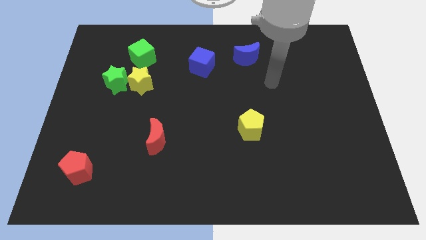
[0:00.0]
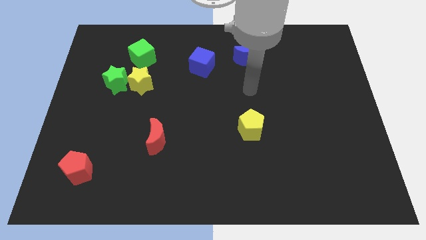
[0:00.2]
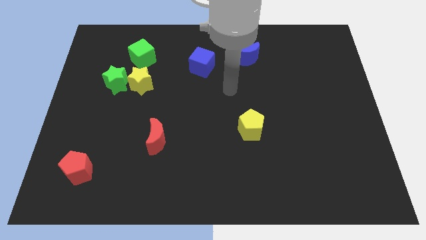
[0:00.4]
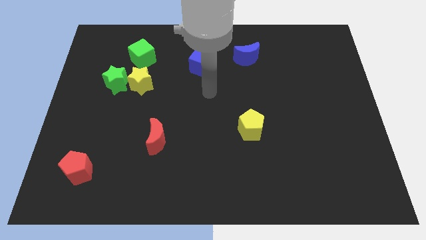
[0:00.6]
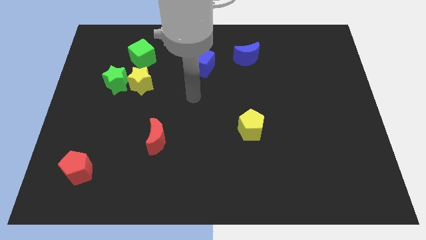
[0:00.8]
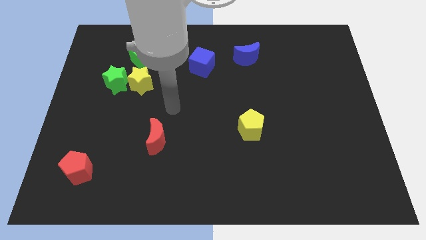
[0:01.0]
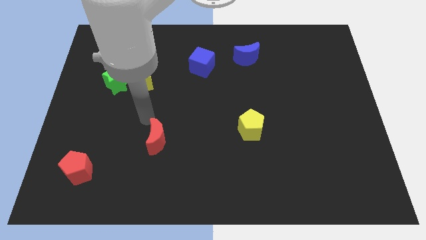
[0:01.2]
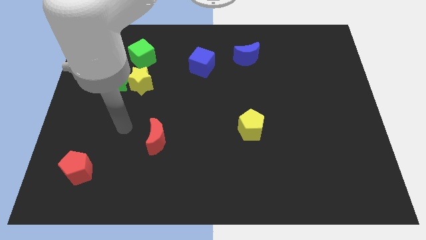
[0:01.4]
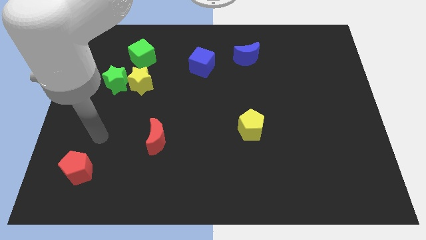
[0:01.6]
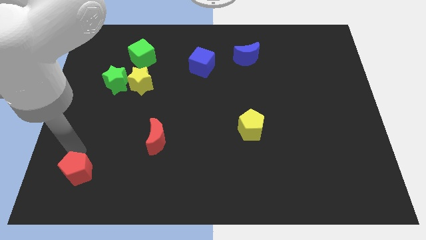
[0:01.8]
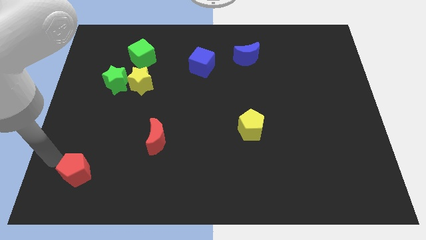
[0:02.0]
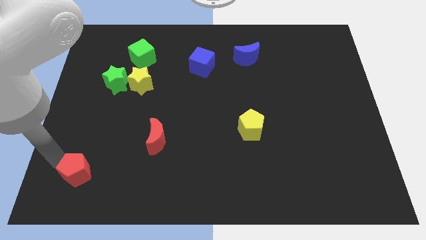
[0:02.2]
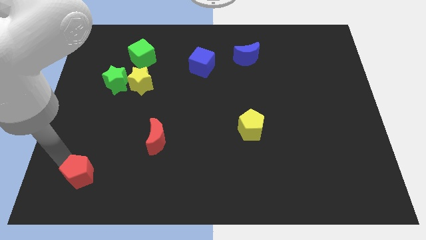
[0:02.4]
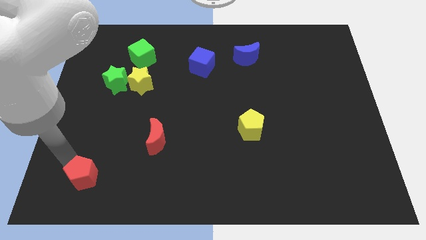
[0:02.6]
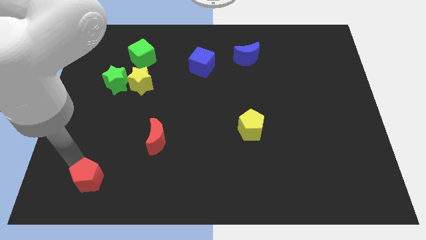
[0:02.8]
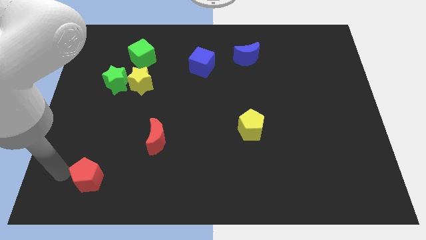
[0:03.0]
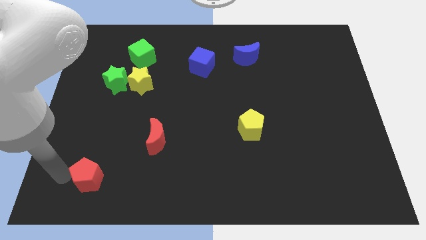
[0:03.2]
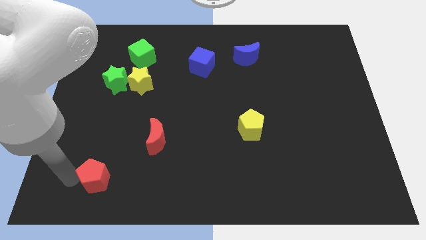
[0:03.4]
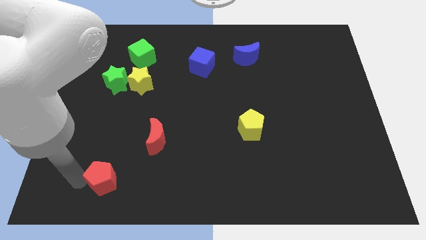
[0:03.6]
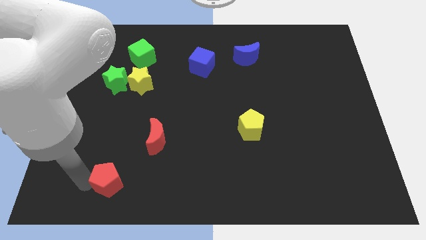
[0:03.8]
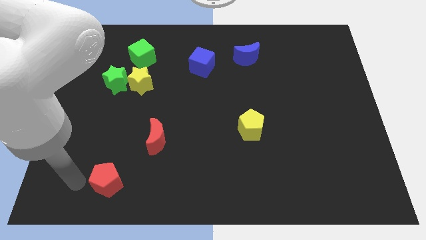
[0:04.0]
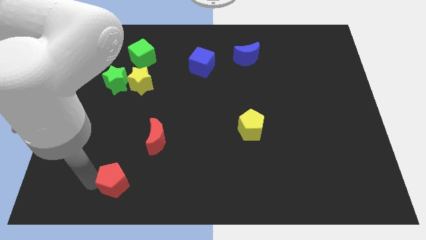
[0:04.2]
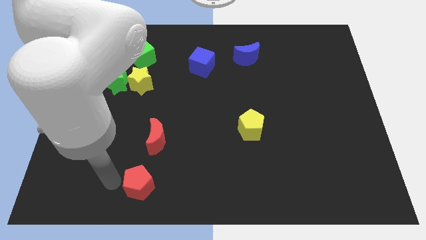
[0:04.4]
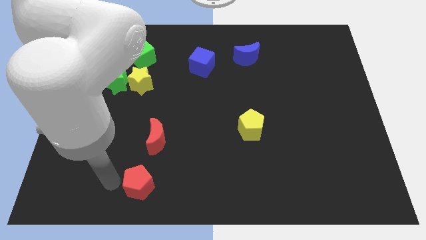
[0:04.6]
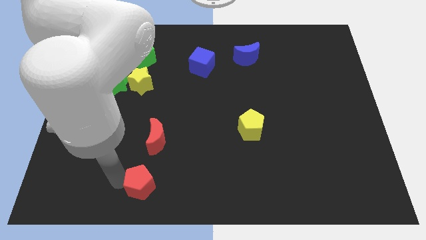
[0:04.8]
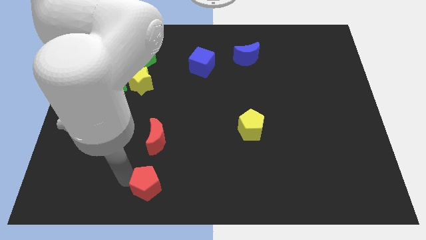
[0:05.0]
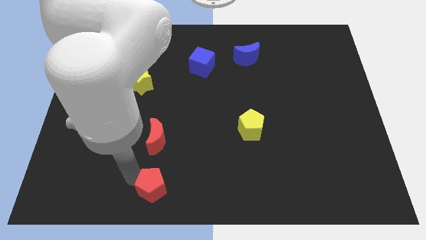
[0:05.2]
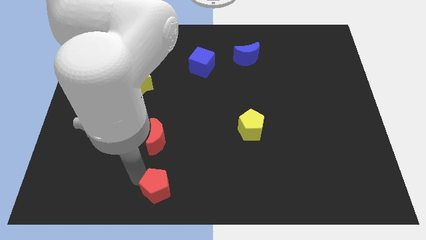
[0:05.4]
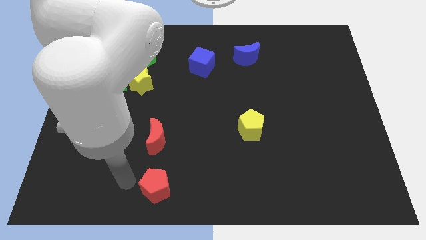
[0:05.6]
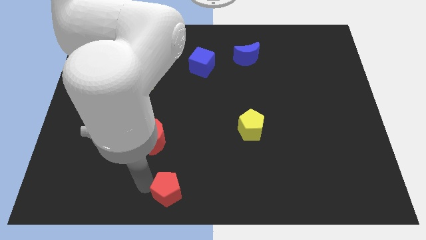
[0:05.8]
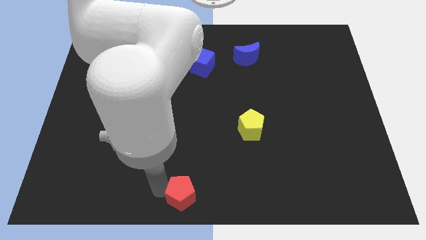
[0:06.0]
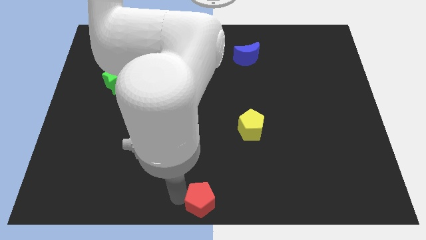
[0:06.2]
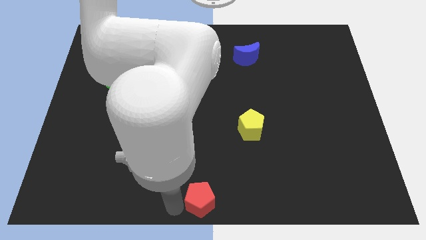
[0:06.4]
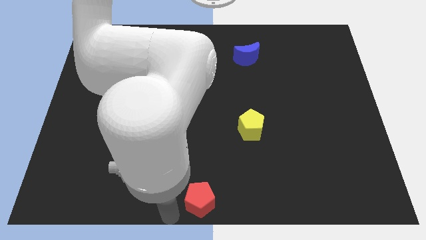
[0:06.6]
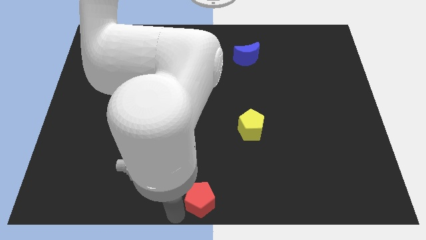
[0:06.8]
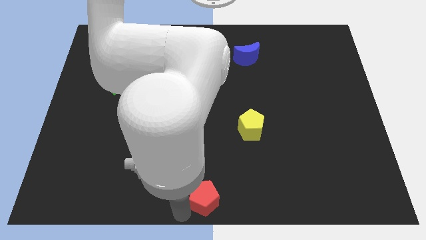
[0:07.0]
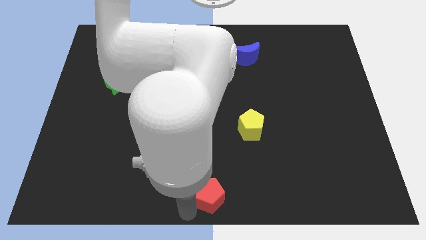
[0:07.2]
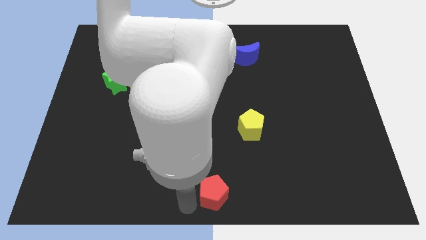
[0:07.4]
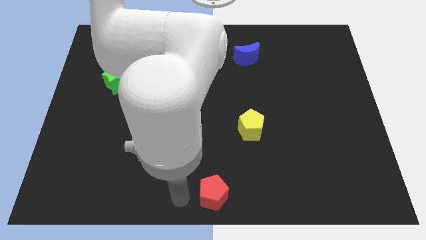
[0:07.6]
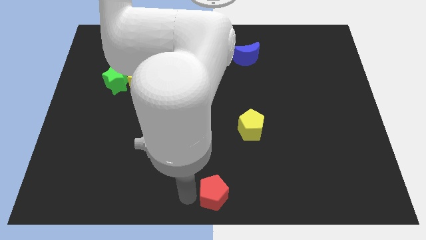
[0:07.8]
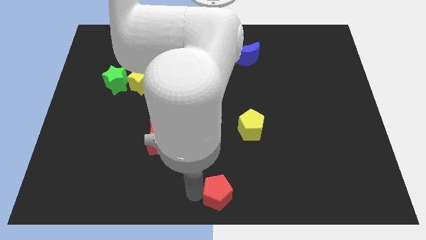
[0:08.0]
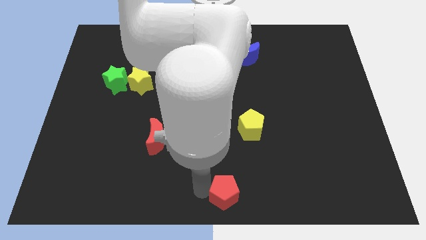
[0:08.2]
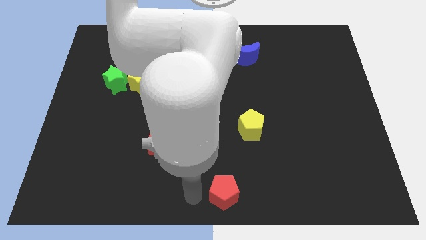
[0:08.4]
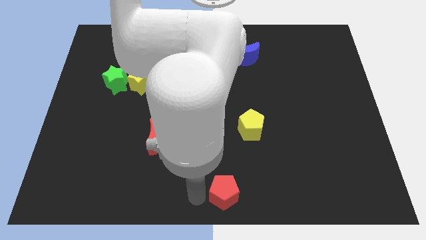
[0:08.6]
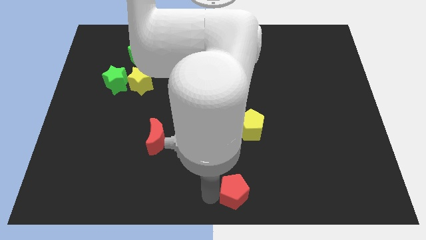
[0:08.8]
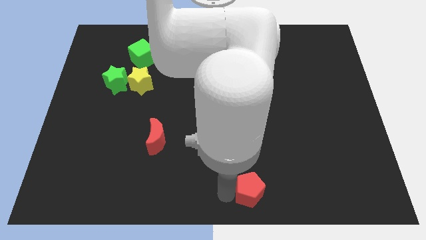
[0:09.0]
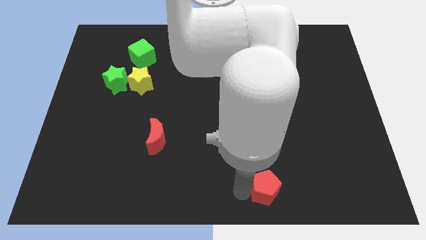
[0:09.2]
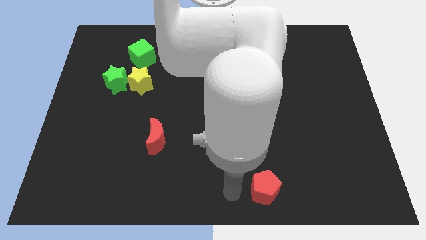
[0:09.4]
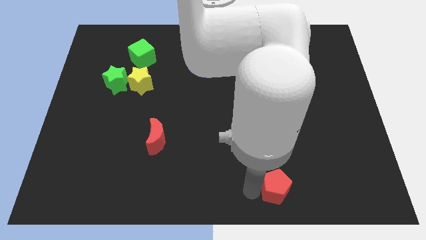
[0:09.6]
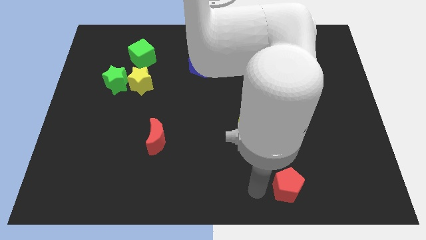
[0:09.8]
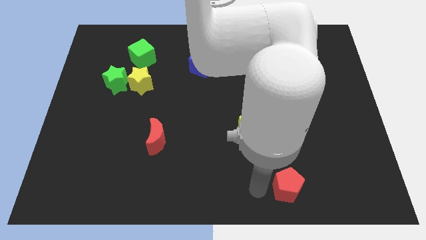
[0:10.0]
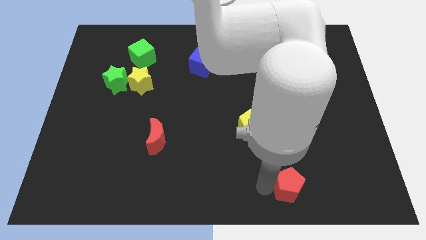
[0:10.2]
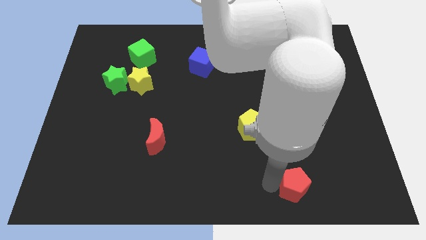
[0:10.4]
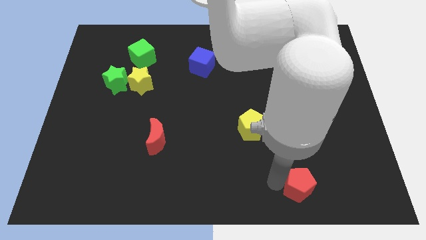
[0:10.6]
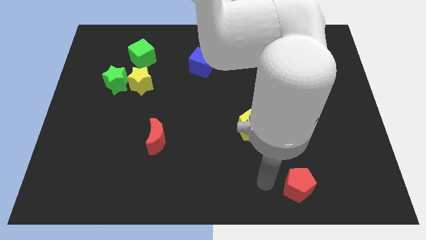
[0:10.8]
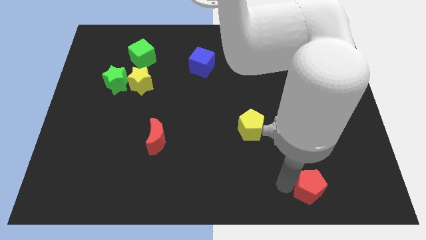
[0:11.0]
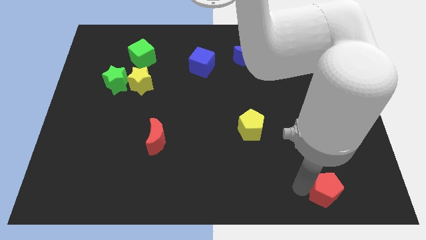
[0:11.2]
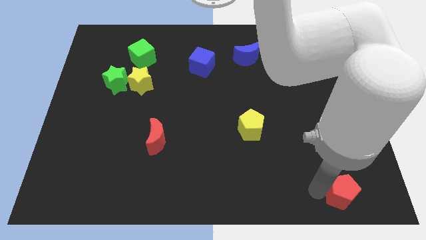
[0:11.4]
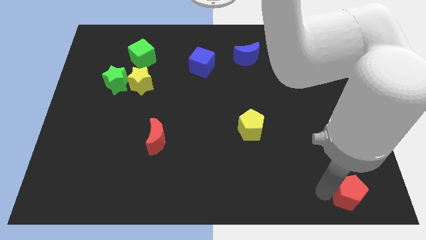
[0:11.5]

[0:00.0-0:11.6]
move the red pentagon to the bottom right corner

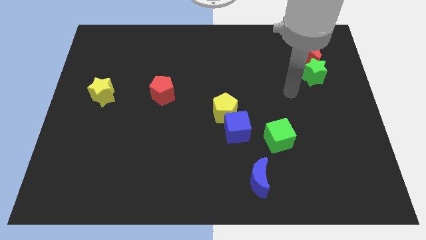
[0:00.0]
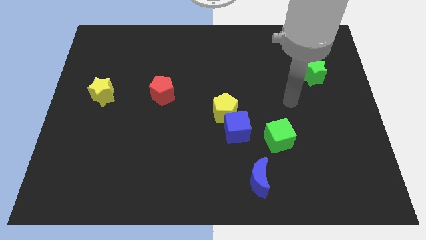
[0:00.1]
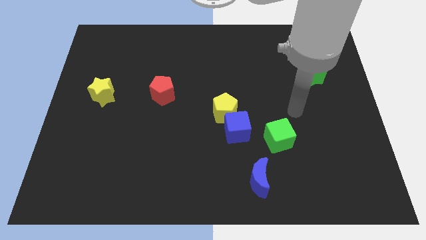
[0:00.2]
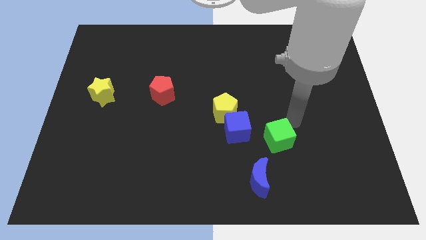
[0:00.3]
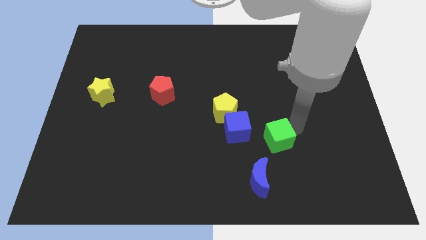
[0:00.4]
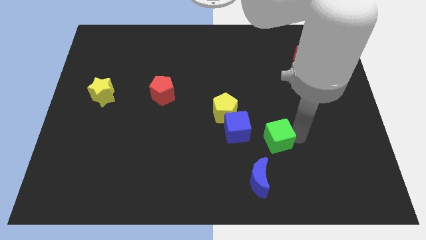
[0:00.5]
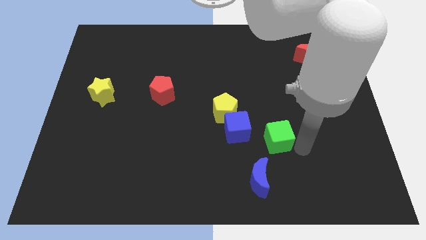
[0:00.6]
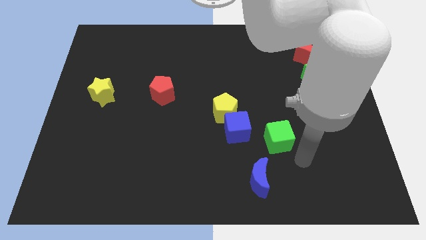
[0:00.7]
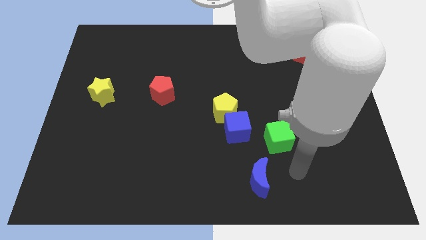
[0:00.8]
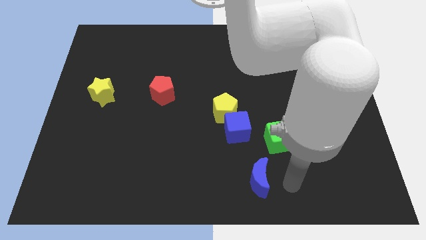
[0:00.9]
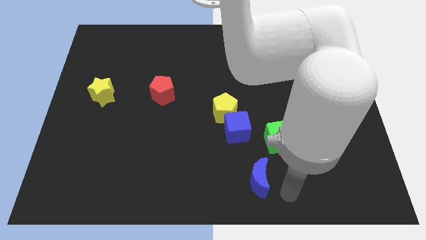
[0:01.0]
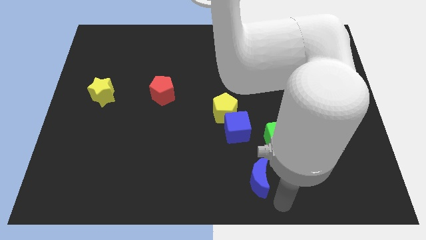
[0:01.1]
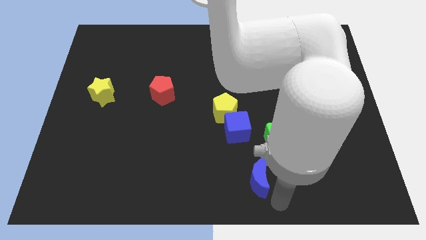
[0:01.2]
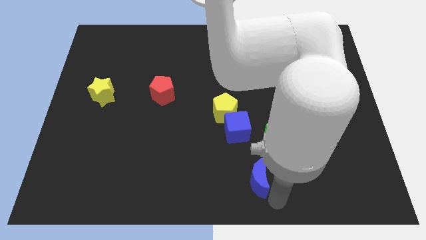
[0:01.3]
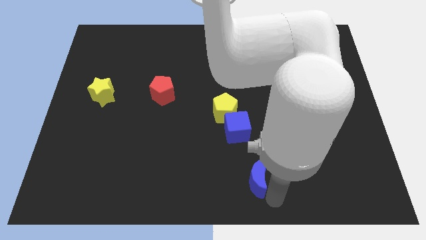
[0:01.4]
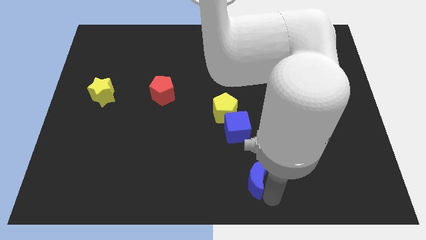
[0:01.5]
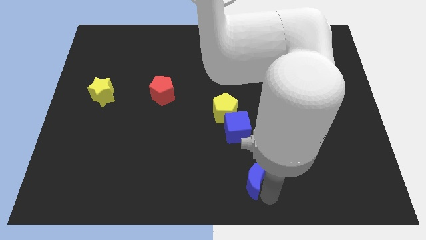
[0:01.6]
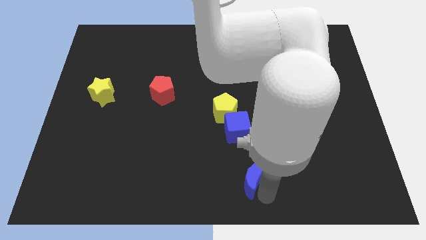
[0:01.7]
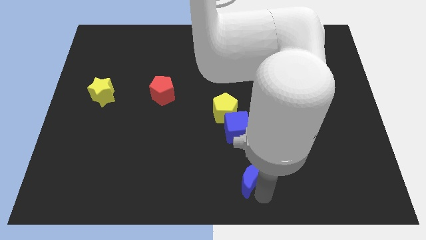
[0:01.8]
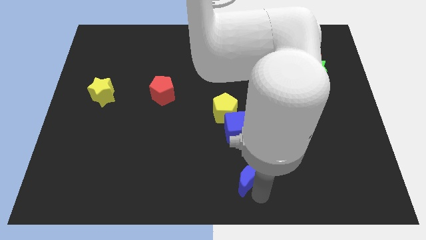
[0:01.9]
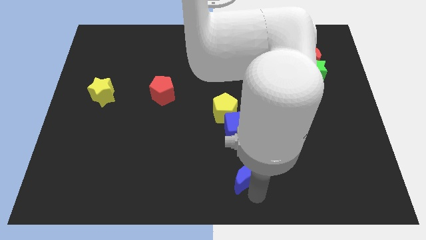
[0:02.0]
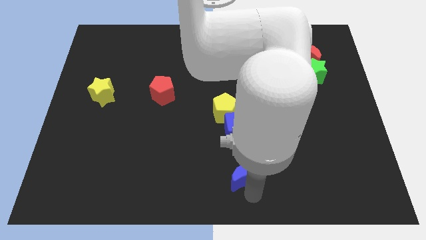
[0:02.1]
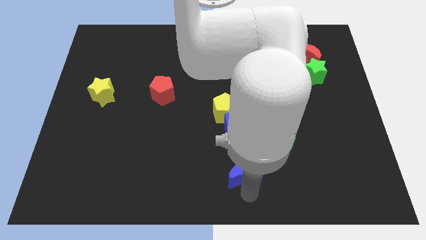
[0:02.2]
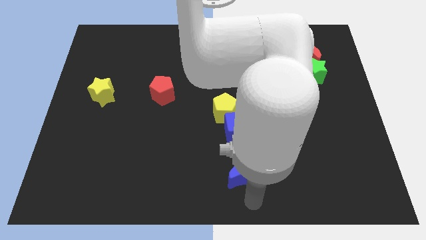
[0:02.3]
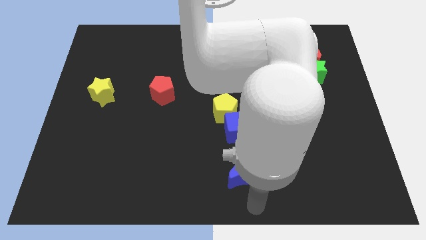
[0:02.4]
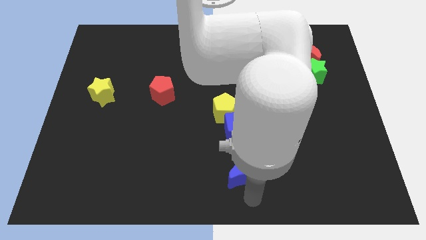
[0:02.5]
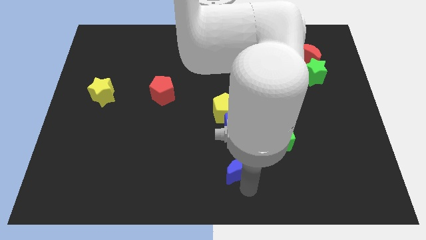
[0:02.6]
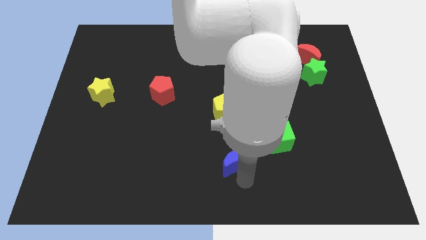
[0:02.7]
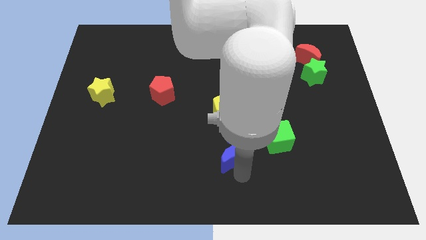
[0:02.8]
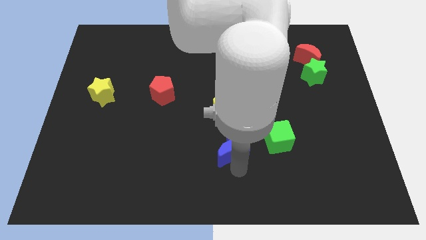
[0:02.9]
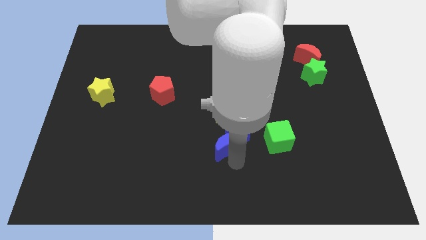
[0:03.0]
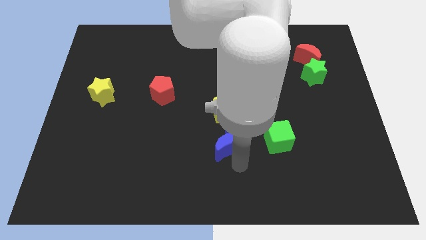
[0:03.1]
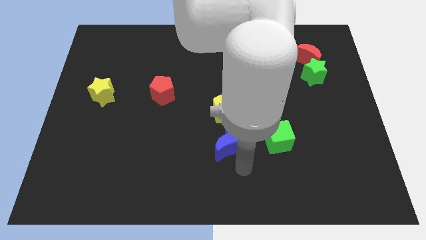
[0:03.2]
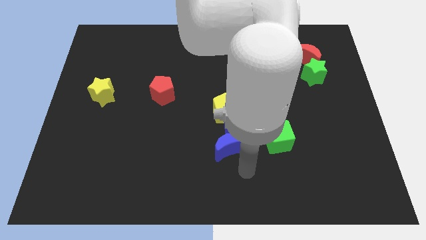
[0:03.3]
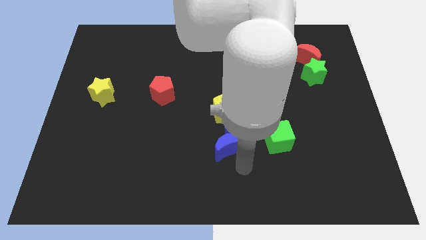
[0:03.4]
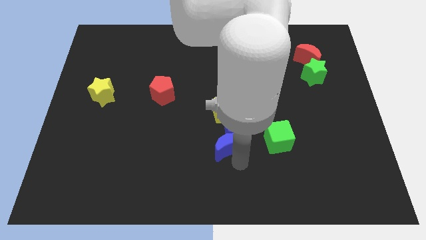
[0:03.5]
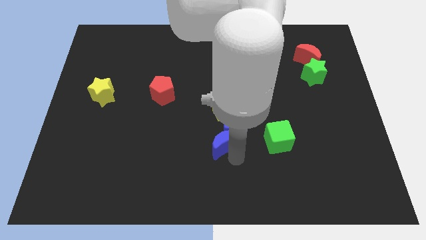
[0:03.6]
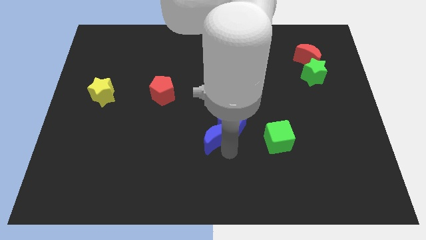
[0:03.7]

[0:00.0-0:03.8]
slide the blue moon to the middle
